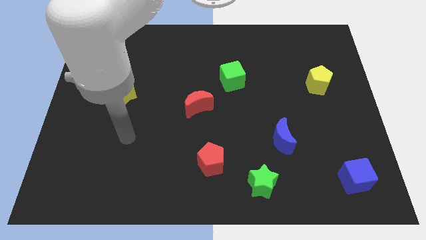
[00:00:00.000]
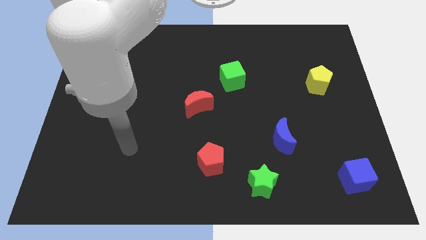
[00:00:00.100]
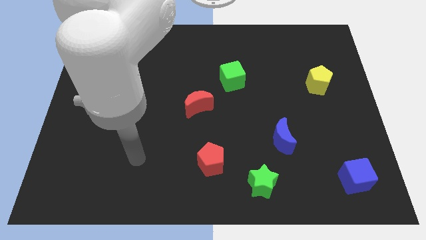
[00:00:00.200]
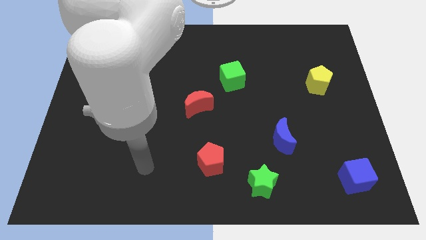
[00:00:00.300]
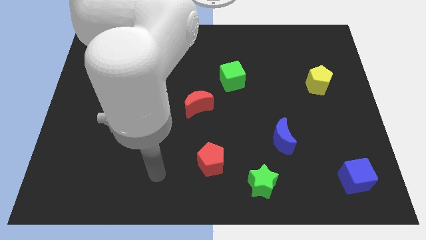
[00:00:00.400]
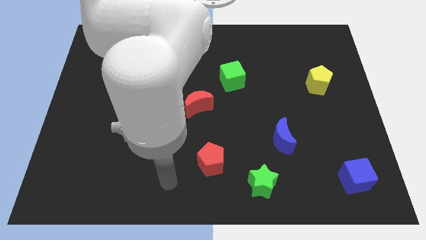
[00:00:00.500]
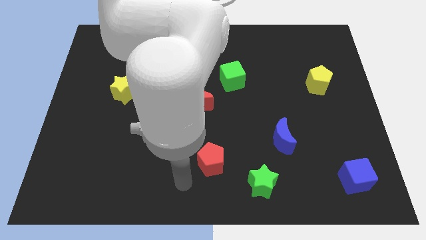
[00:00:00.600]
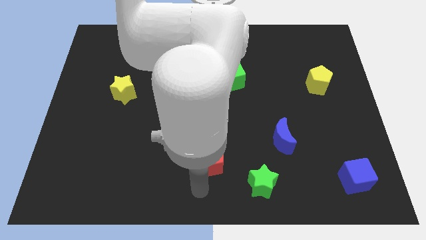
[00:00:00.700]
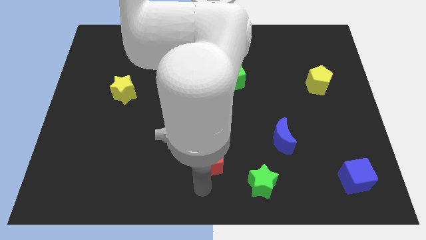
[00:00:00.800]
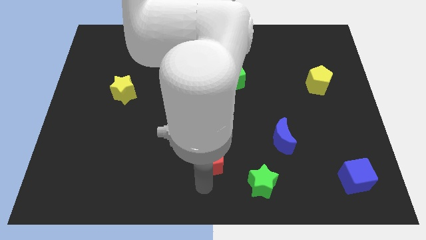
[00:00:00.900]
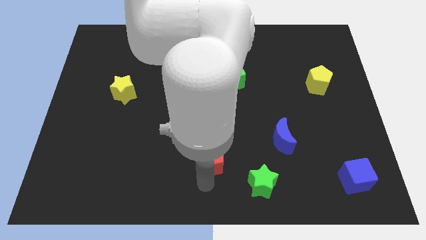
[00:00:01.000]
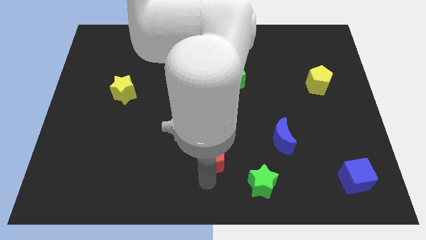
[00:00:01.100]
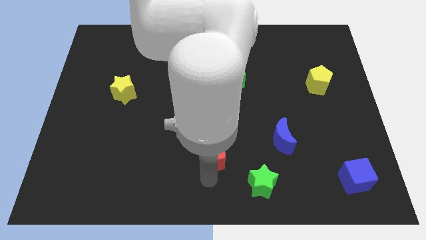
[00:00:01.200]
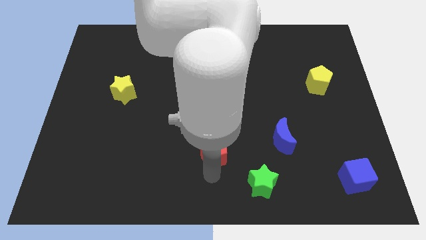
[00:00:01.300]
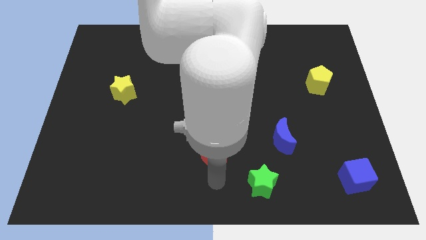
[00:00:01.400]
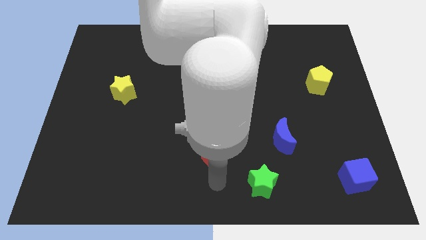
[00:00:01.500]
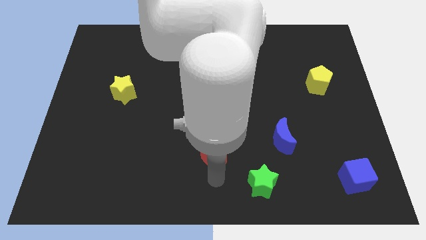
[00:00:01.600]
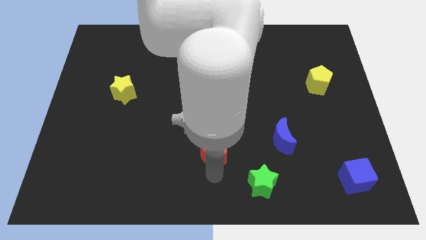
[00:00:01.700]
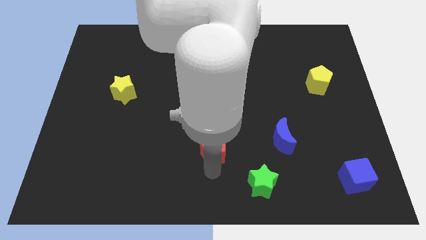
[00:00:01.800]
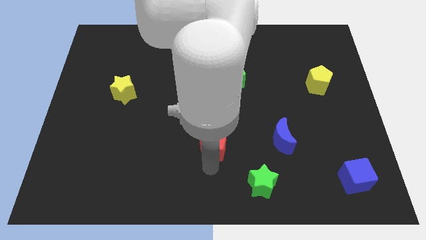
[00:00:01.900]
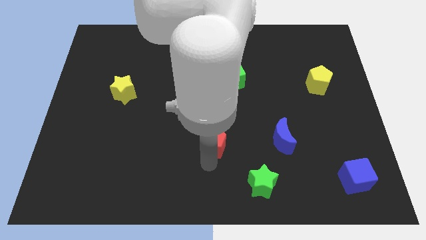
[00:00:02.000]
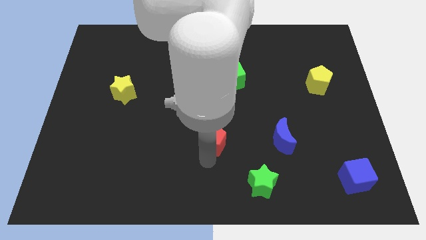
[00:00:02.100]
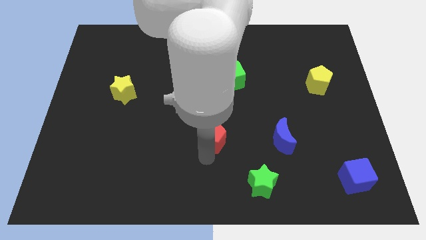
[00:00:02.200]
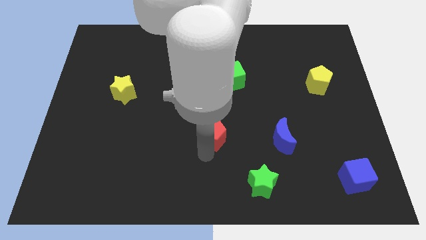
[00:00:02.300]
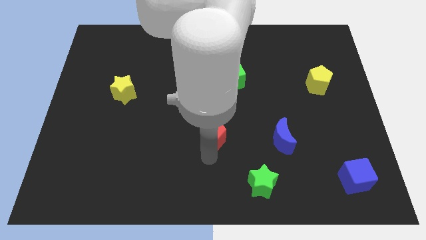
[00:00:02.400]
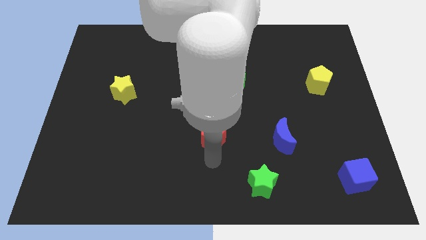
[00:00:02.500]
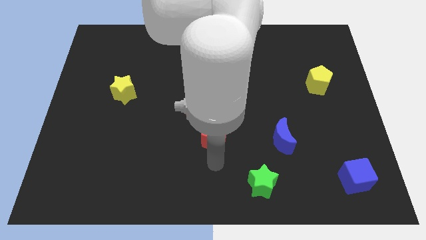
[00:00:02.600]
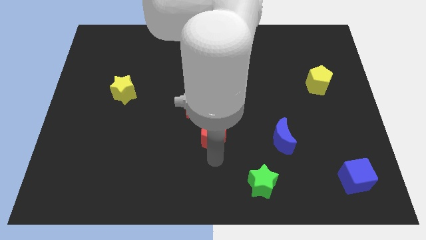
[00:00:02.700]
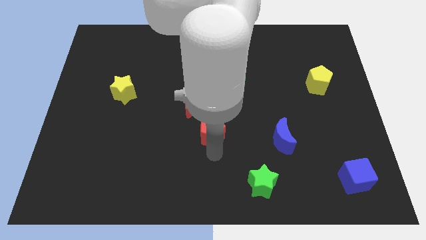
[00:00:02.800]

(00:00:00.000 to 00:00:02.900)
slightly push the red pentagon up

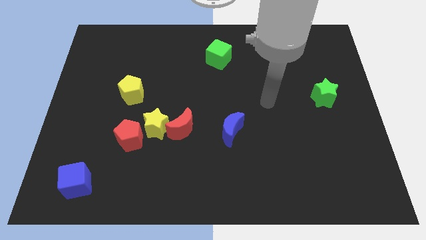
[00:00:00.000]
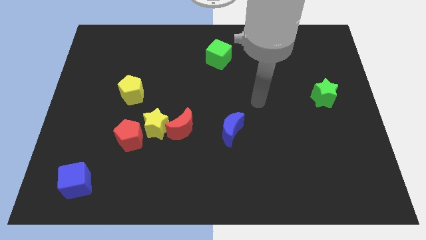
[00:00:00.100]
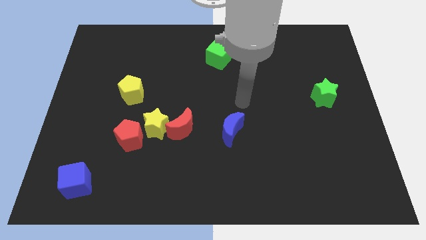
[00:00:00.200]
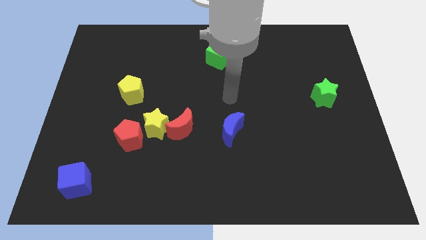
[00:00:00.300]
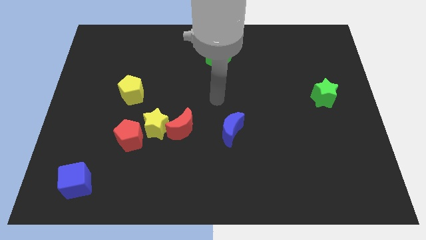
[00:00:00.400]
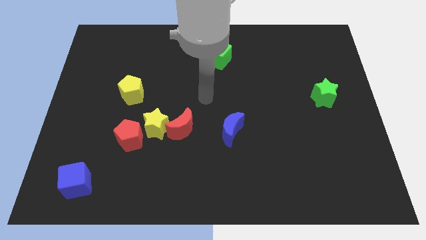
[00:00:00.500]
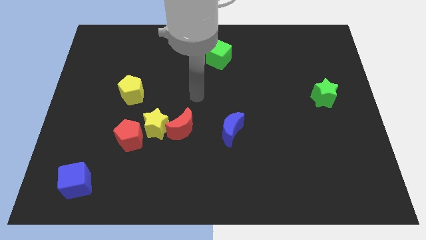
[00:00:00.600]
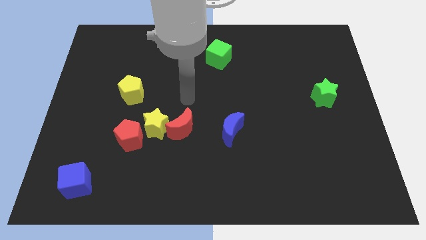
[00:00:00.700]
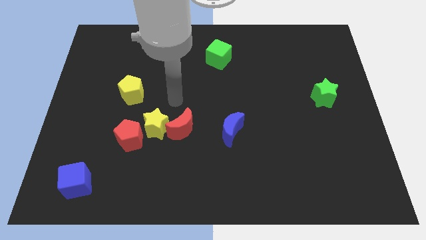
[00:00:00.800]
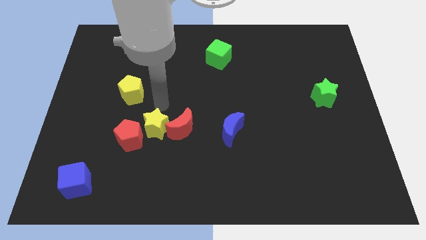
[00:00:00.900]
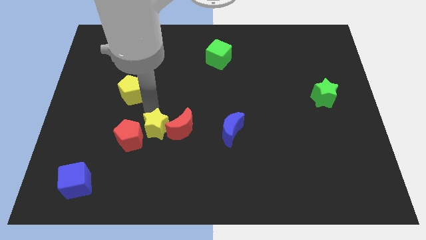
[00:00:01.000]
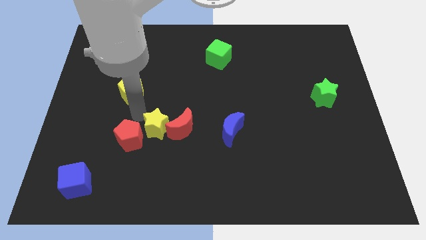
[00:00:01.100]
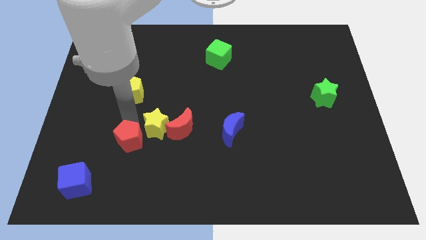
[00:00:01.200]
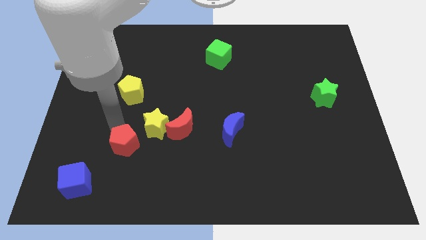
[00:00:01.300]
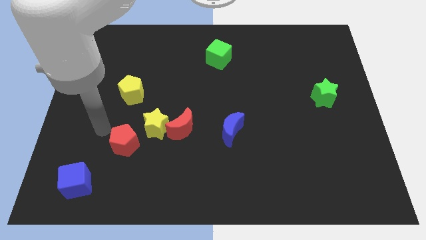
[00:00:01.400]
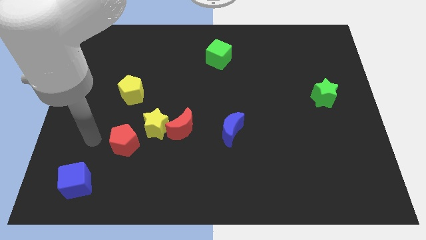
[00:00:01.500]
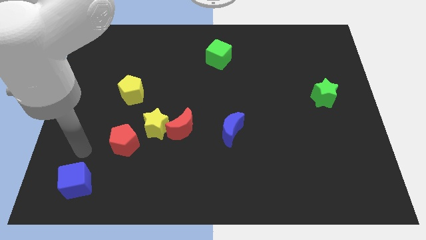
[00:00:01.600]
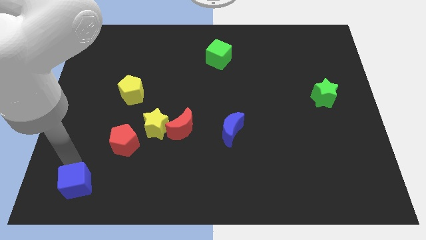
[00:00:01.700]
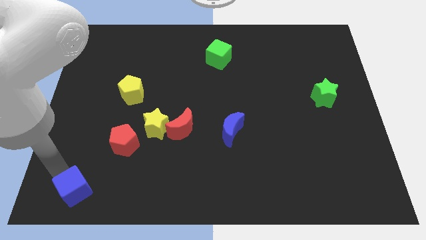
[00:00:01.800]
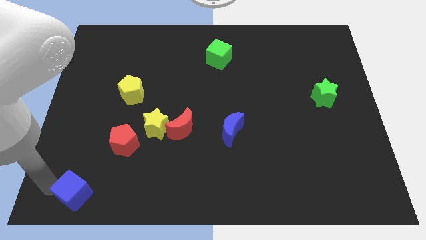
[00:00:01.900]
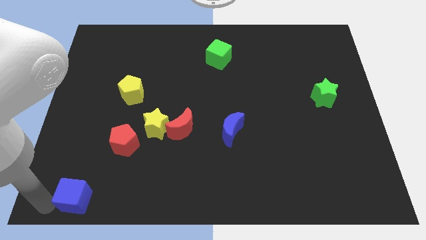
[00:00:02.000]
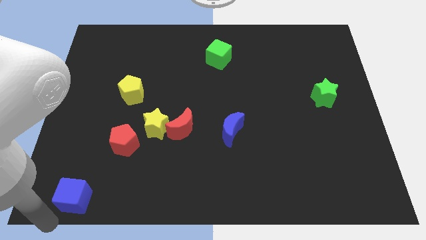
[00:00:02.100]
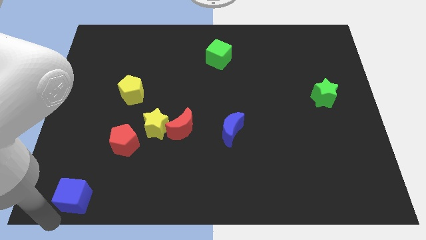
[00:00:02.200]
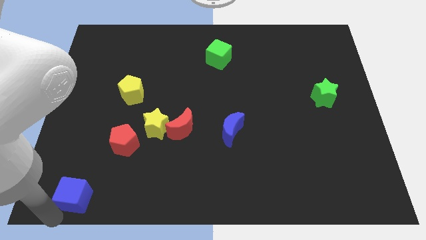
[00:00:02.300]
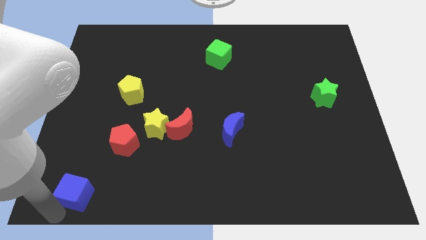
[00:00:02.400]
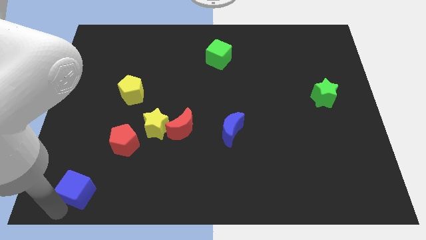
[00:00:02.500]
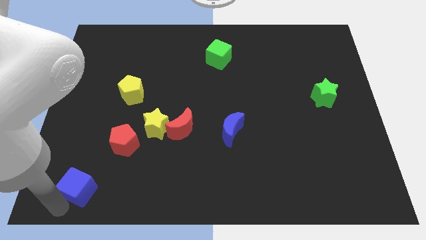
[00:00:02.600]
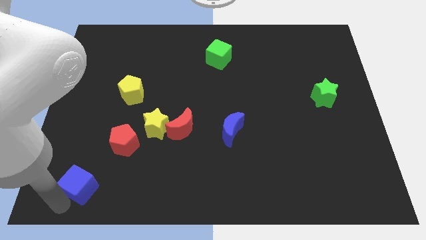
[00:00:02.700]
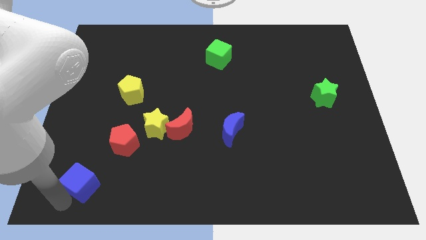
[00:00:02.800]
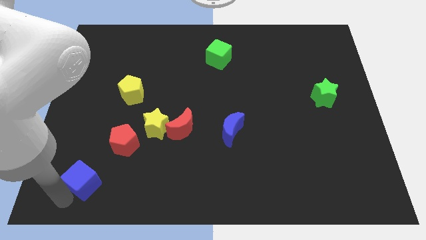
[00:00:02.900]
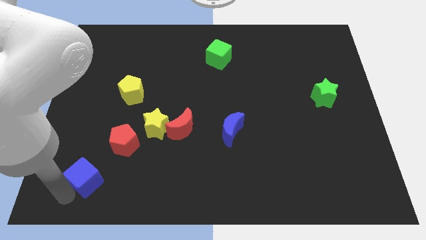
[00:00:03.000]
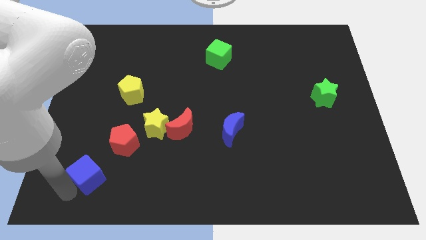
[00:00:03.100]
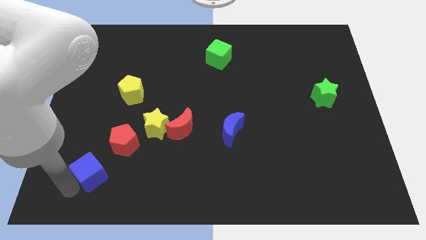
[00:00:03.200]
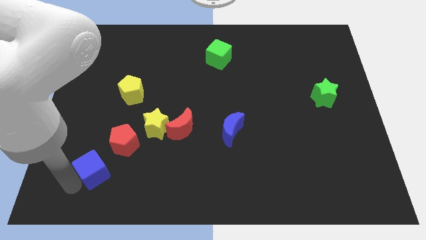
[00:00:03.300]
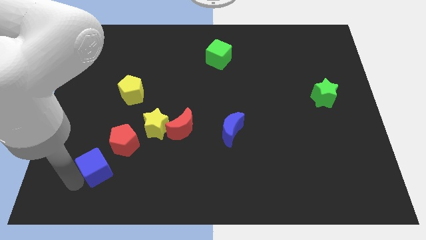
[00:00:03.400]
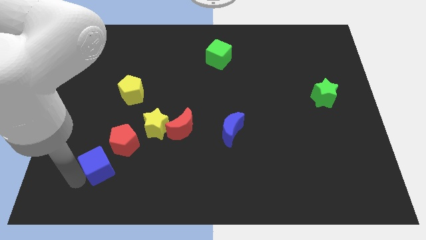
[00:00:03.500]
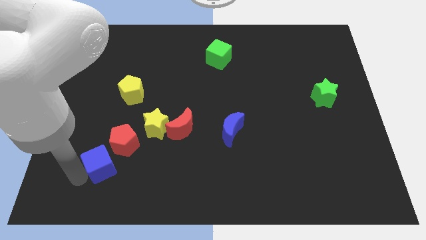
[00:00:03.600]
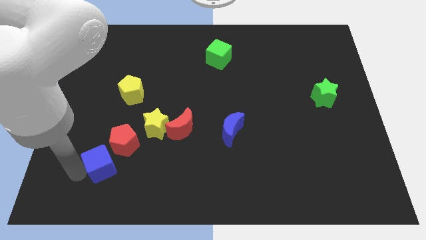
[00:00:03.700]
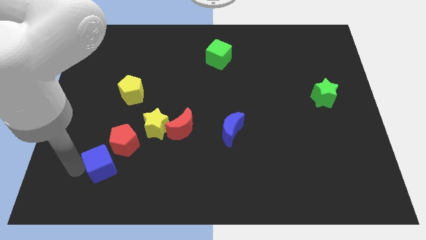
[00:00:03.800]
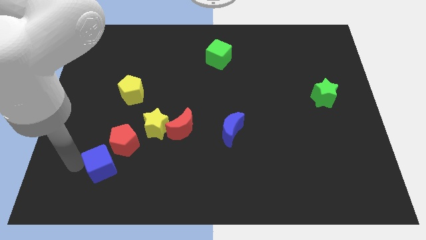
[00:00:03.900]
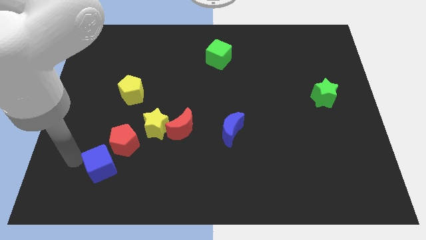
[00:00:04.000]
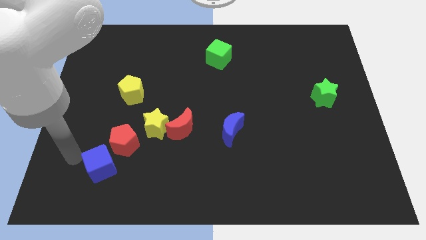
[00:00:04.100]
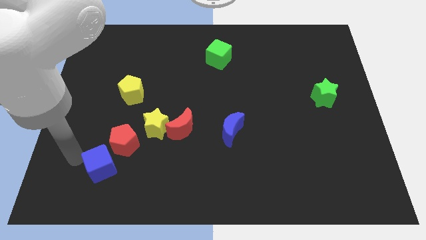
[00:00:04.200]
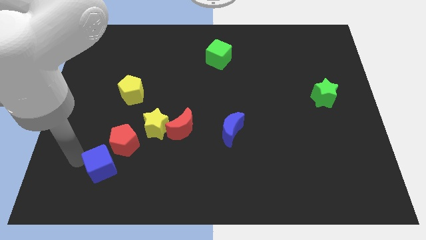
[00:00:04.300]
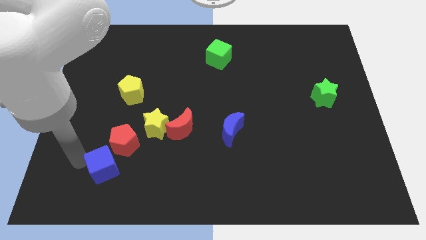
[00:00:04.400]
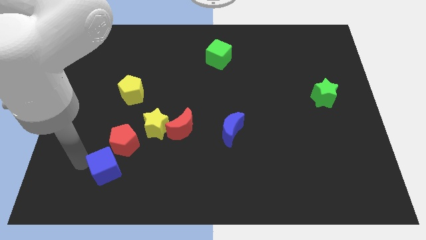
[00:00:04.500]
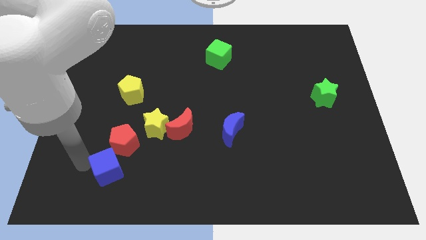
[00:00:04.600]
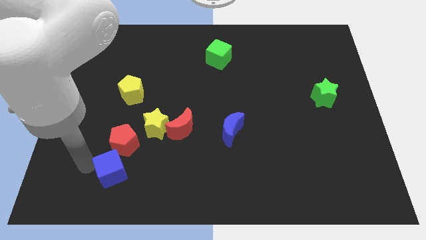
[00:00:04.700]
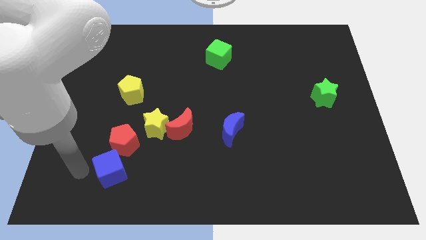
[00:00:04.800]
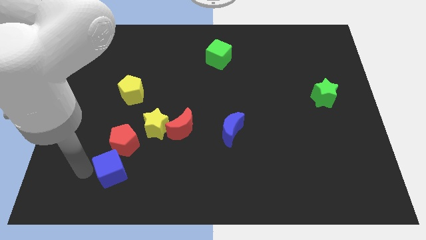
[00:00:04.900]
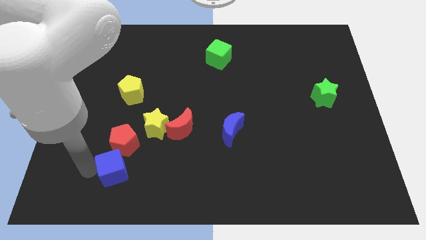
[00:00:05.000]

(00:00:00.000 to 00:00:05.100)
slide the blue cube a bit to the right

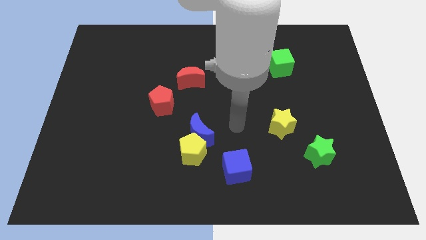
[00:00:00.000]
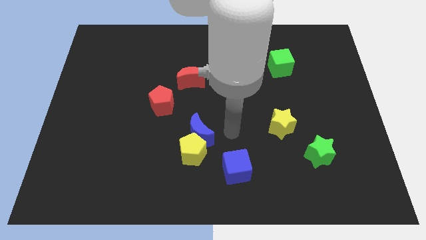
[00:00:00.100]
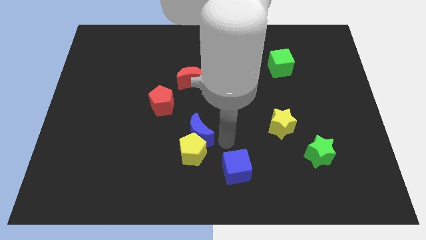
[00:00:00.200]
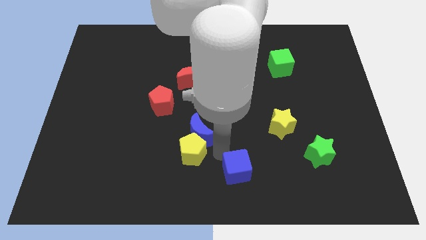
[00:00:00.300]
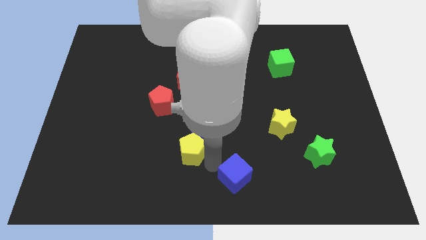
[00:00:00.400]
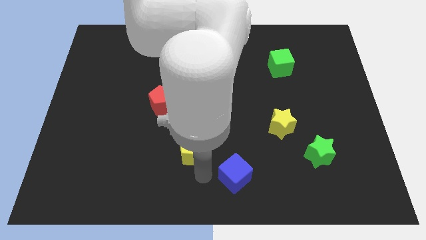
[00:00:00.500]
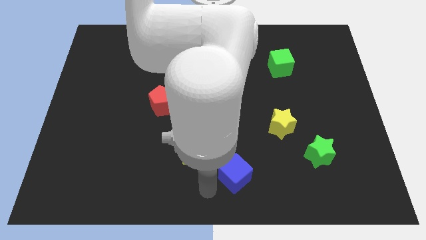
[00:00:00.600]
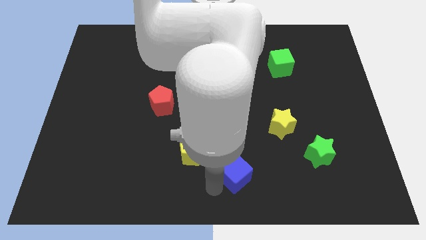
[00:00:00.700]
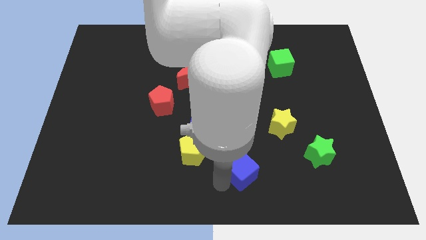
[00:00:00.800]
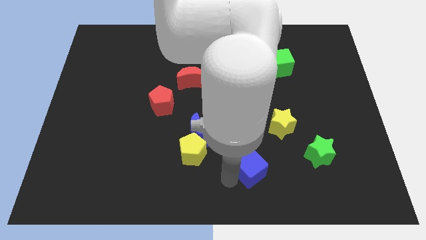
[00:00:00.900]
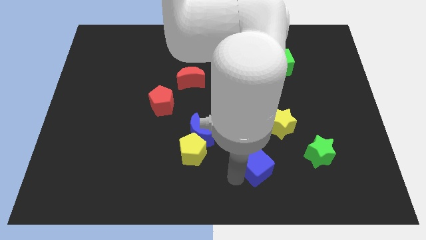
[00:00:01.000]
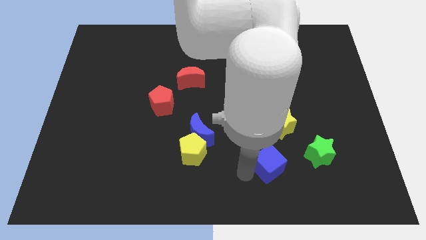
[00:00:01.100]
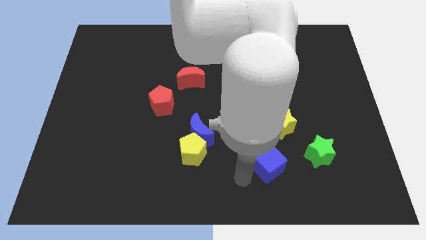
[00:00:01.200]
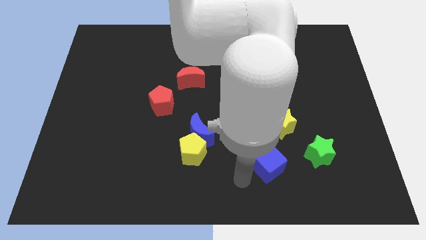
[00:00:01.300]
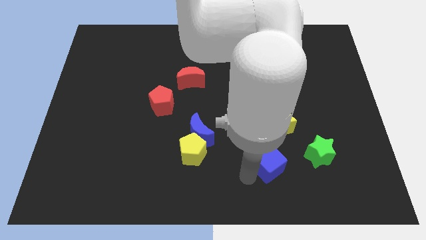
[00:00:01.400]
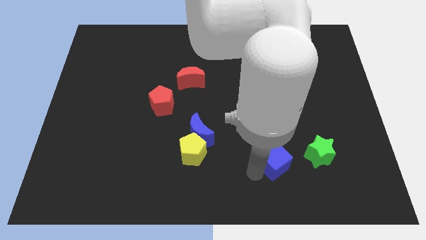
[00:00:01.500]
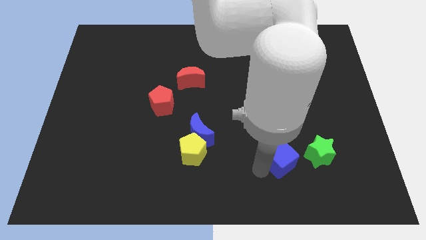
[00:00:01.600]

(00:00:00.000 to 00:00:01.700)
slide the blue cube a bit upwards and to the right
